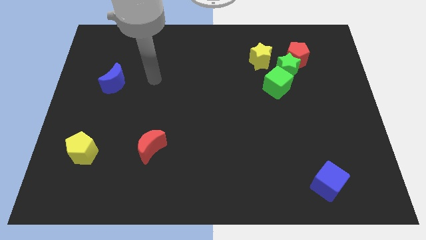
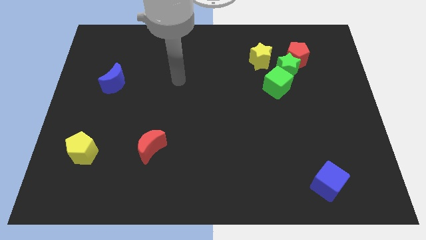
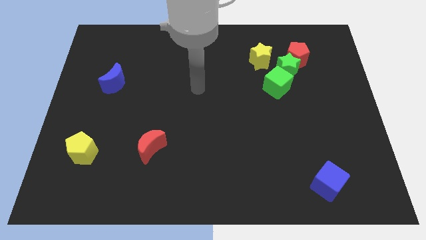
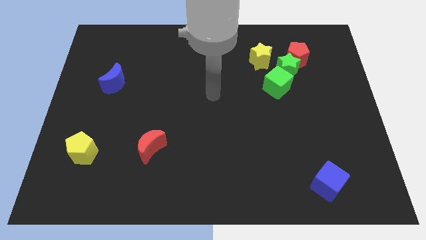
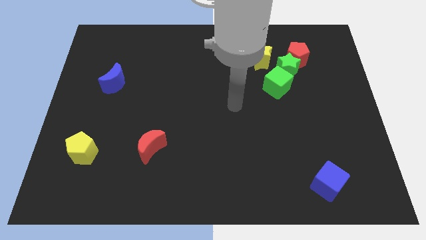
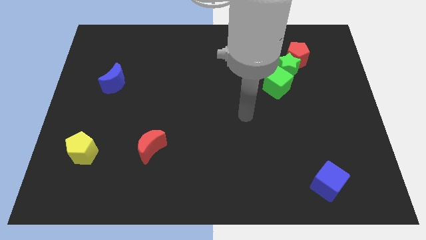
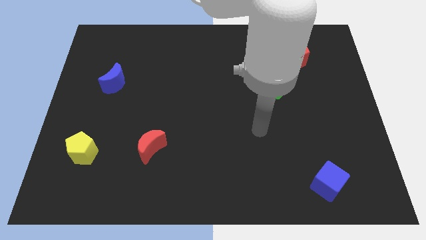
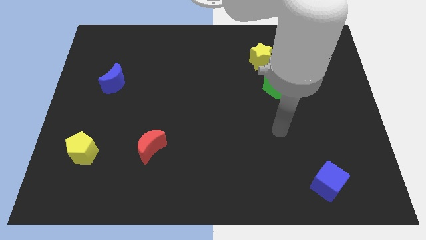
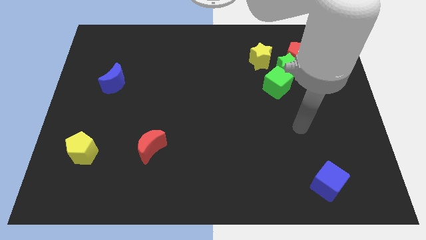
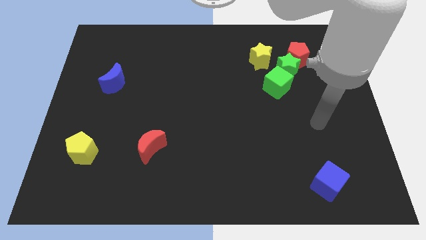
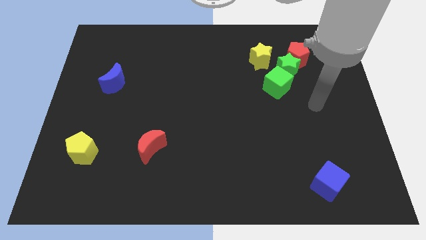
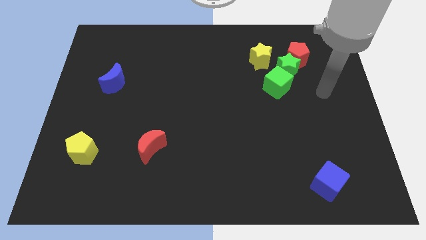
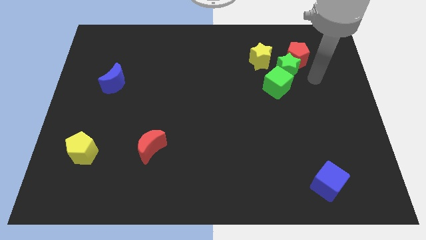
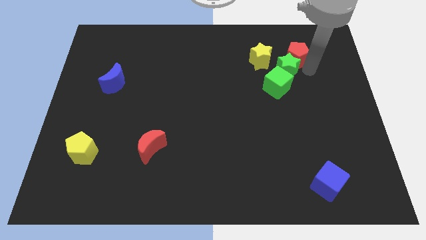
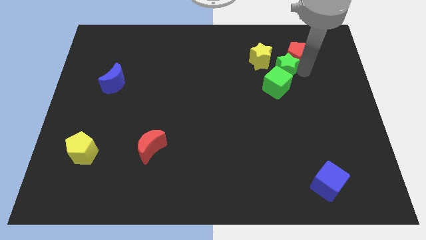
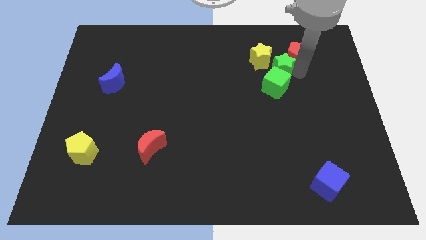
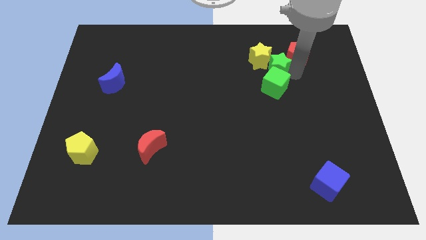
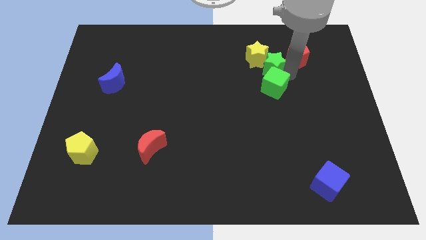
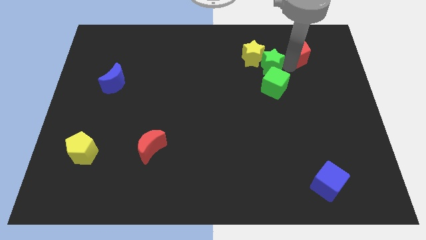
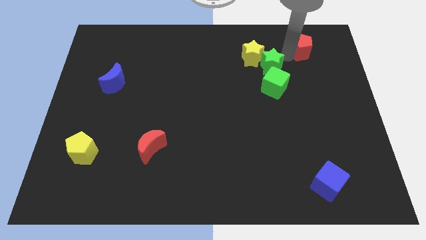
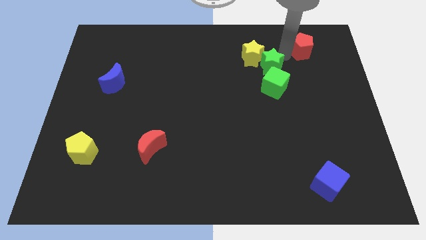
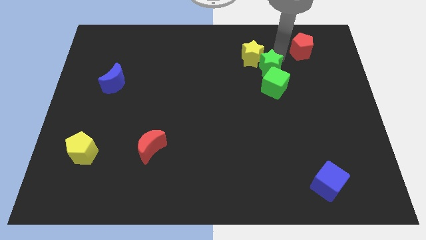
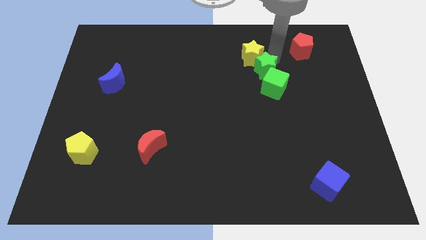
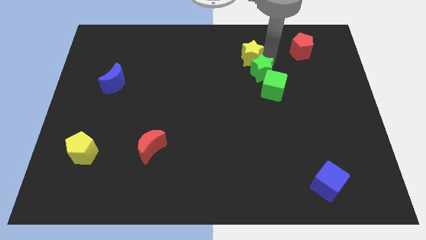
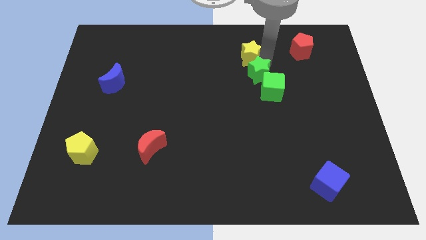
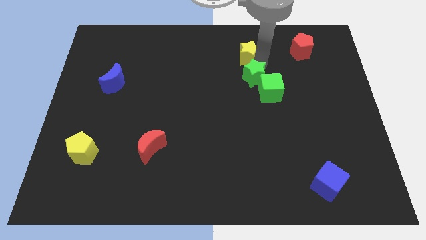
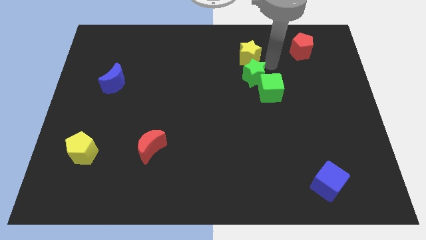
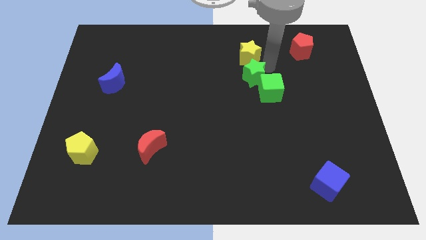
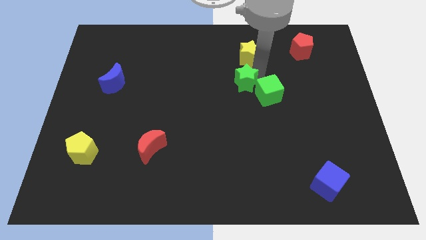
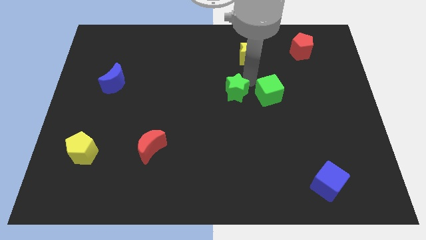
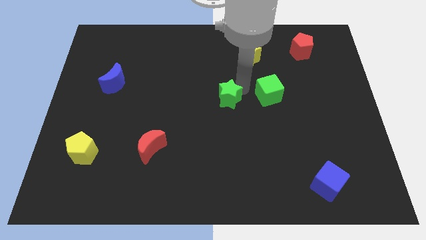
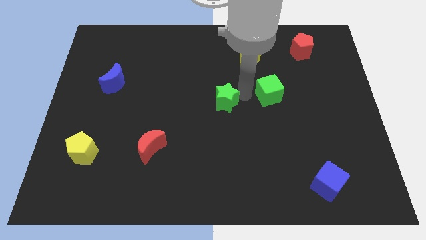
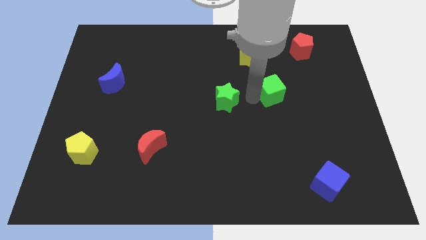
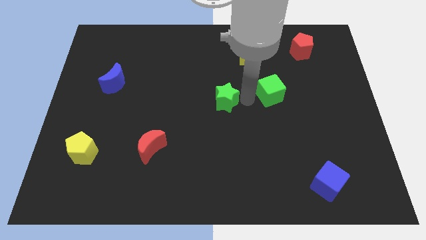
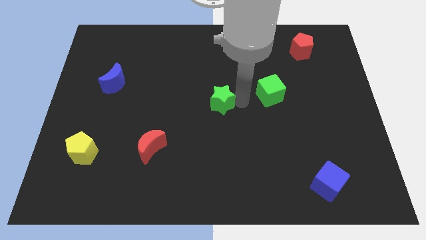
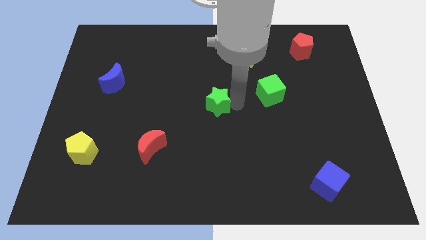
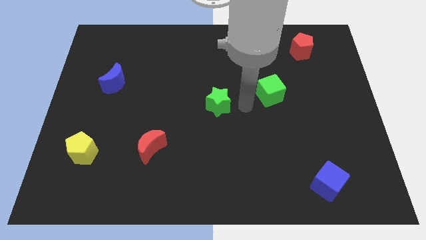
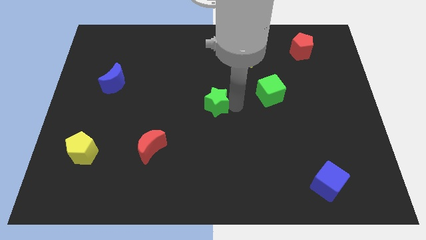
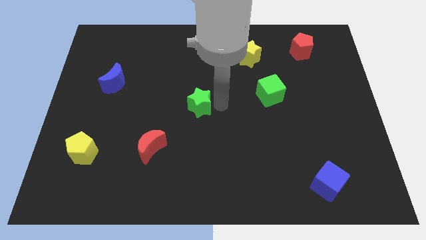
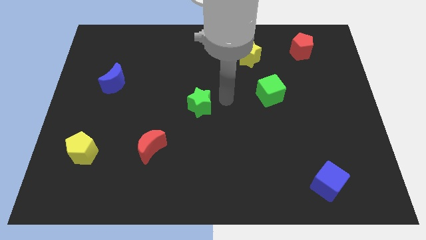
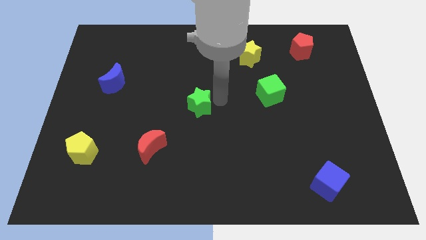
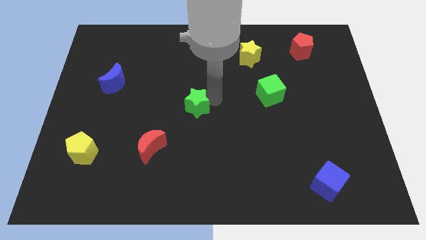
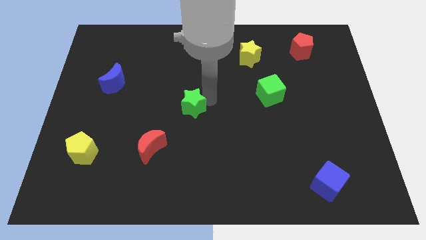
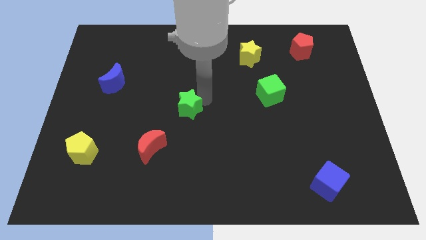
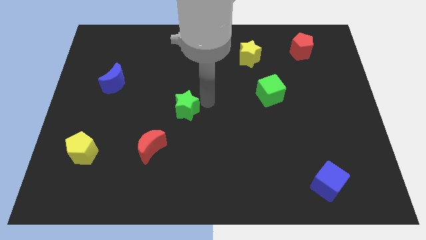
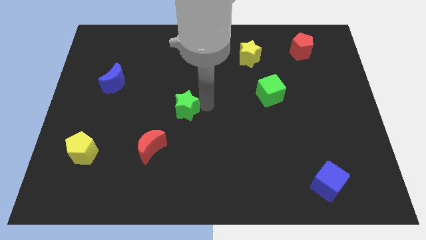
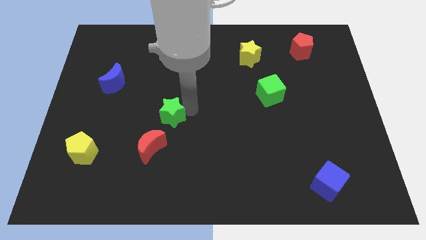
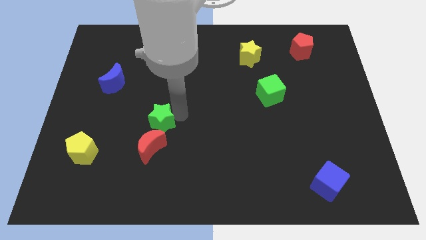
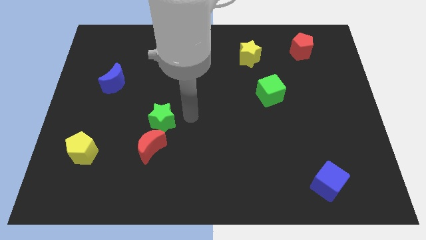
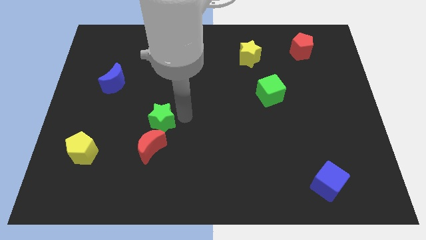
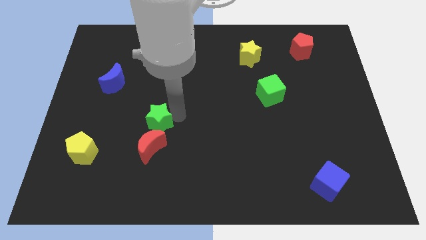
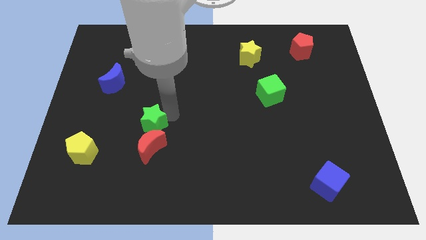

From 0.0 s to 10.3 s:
push the green star to the top left of the red moon

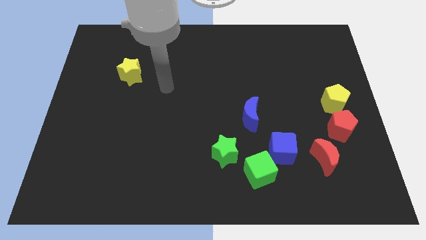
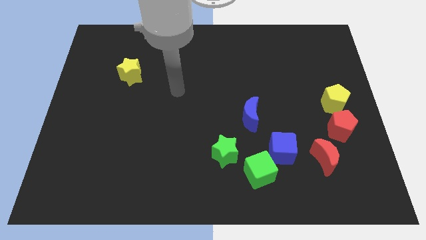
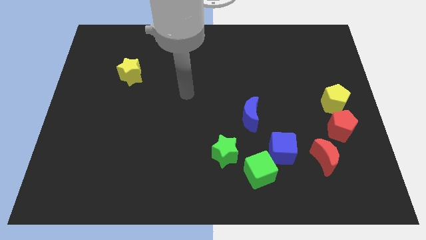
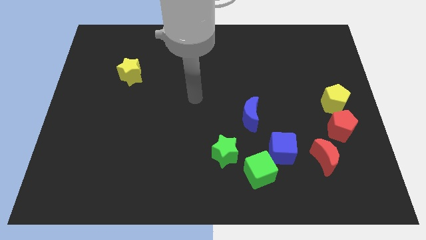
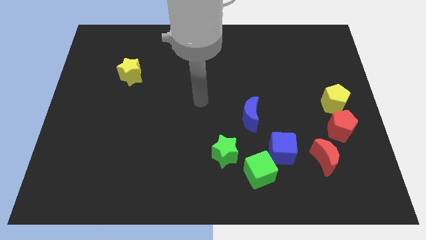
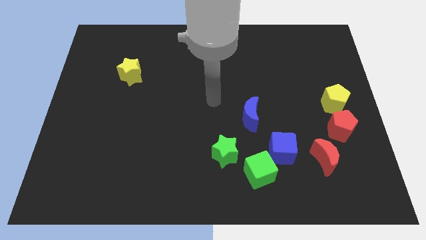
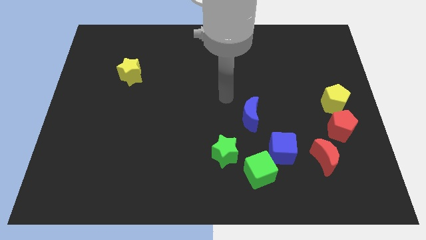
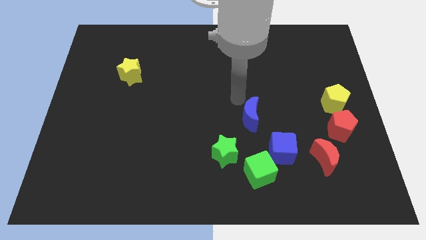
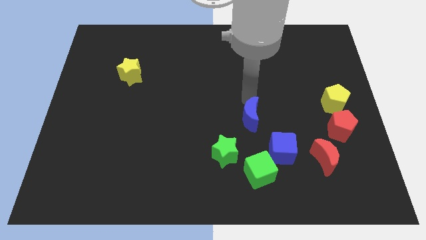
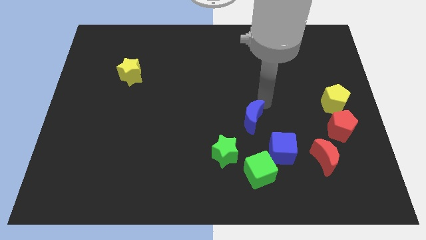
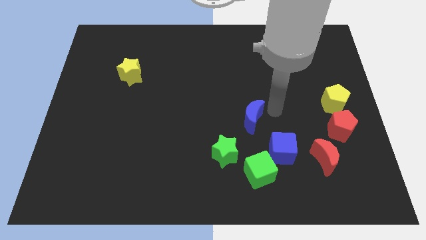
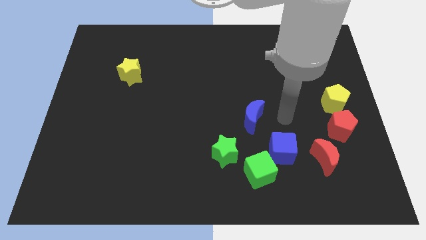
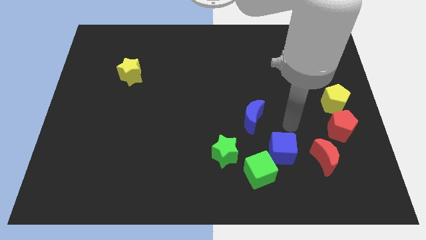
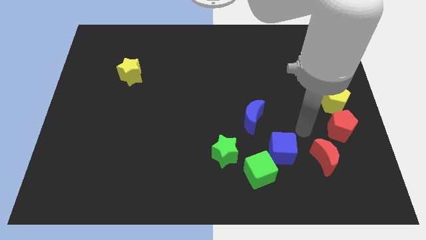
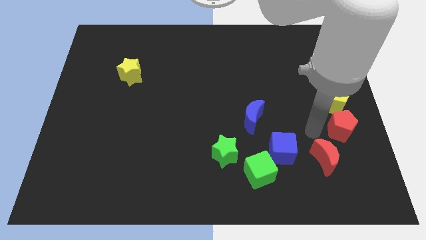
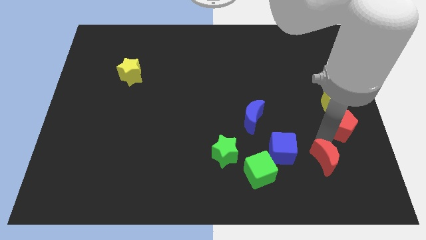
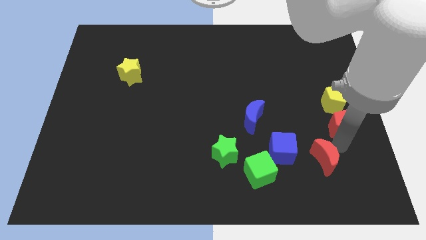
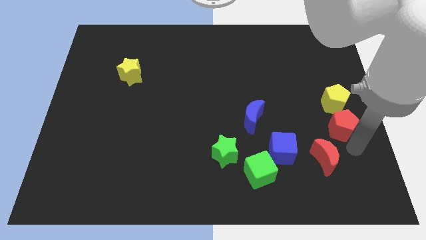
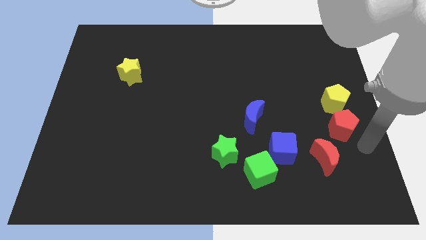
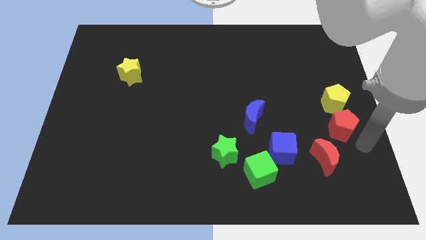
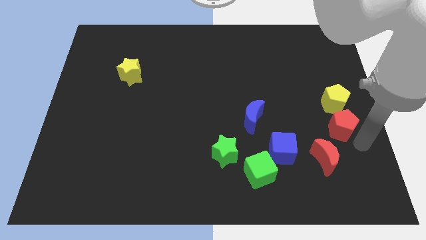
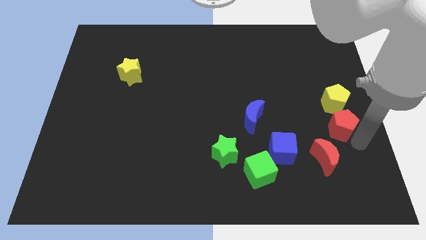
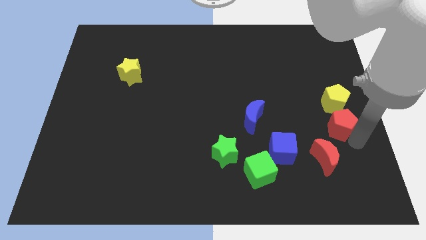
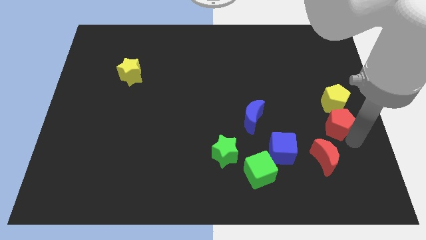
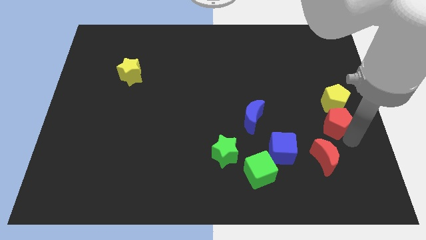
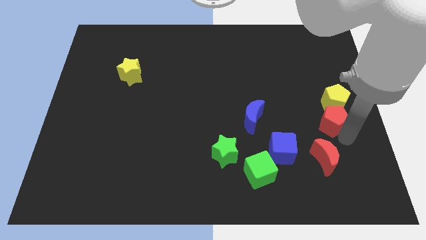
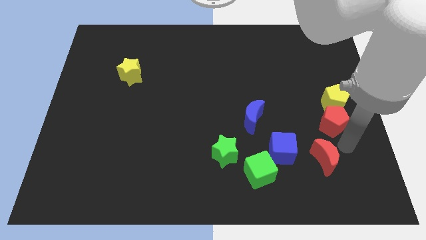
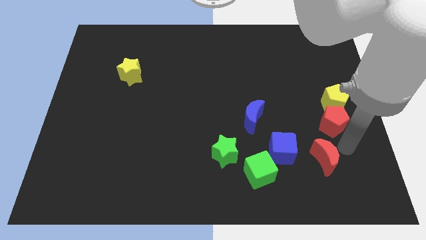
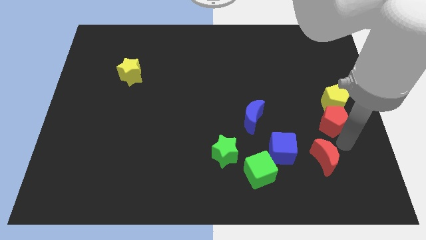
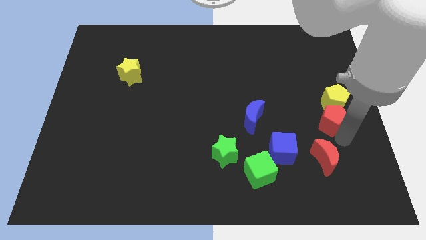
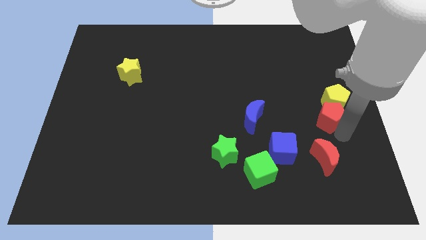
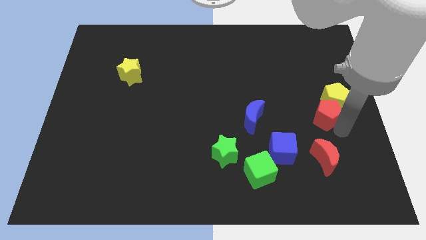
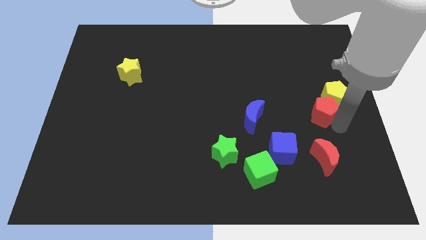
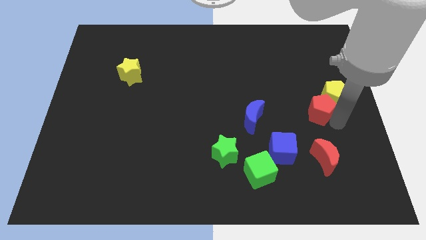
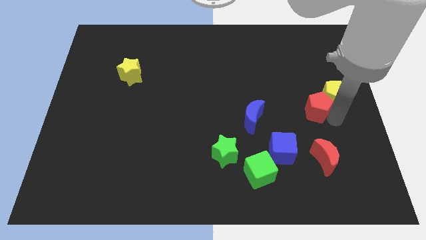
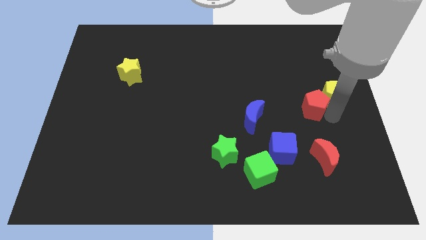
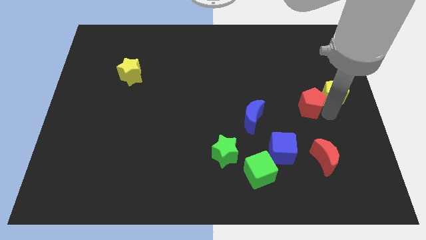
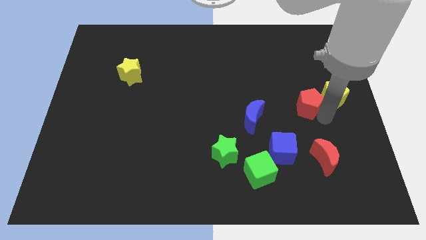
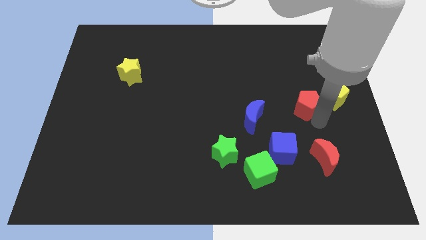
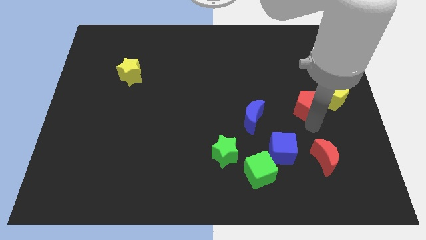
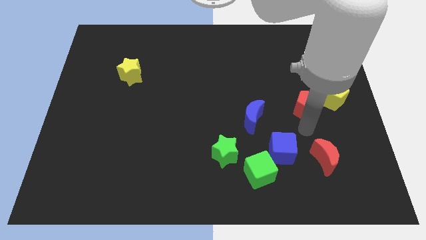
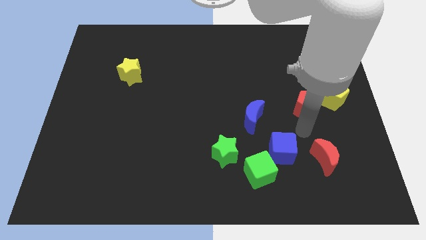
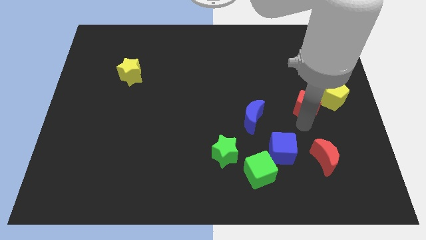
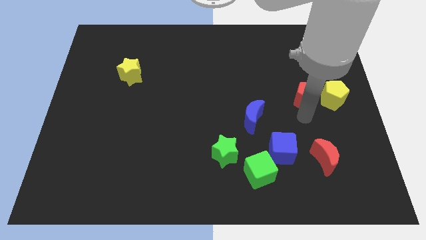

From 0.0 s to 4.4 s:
put the red pentagon to the top left side of the yellow pentagon
